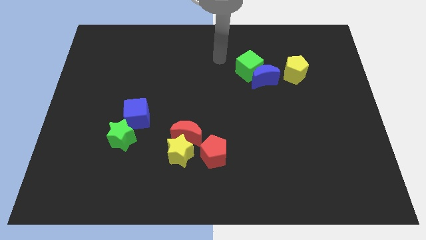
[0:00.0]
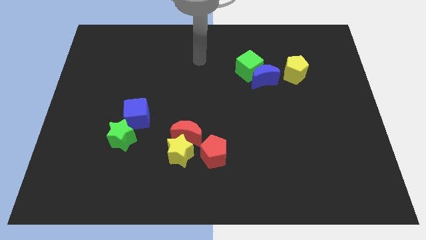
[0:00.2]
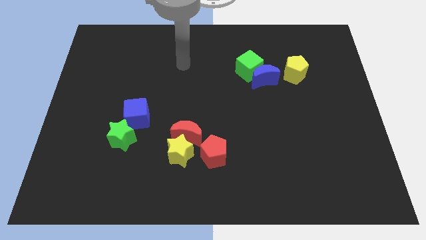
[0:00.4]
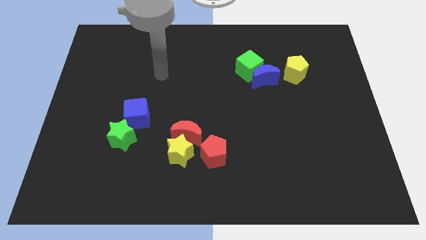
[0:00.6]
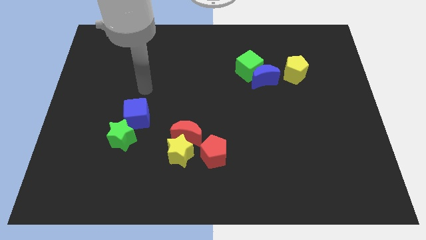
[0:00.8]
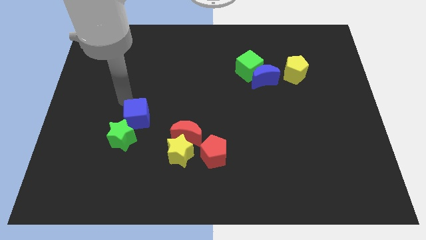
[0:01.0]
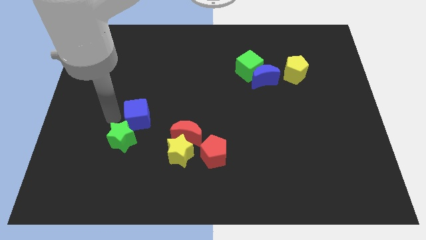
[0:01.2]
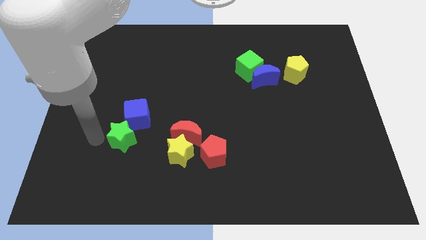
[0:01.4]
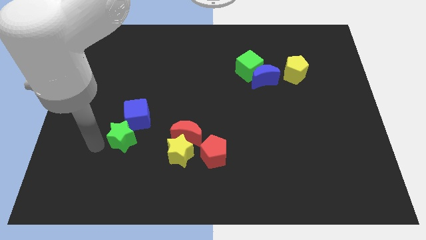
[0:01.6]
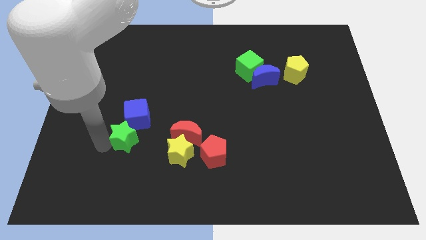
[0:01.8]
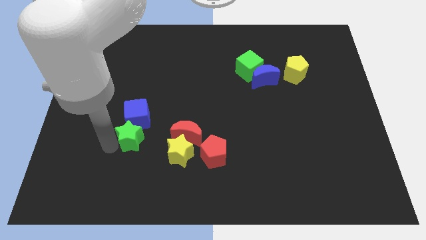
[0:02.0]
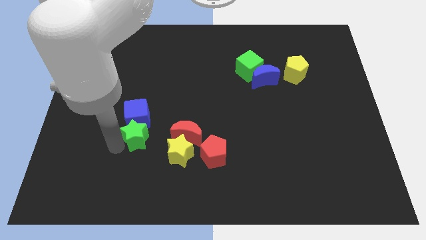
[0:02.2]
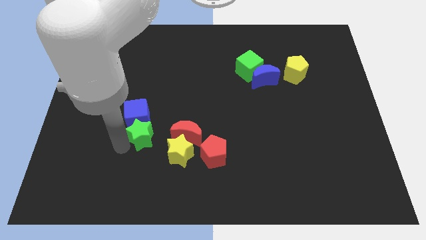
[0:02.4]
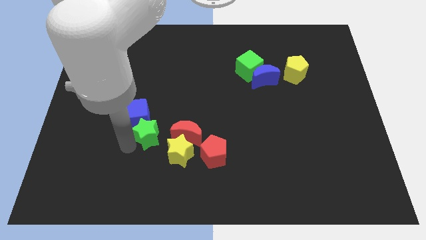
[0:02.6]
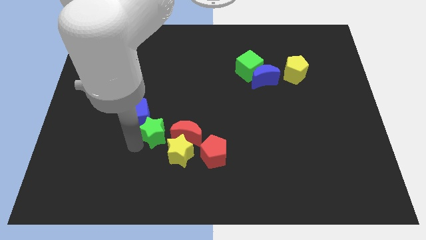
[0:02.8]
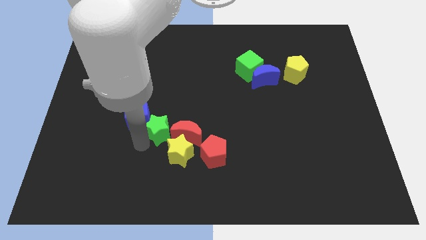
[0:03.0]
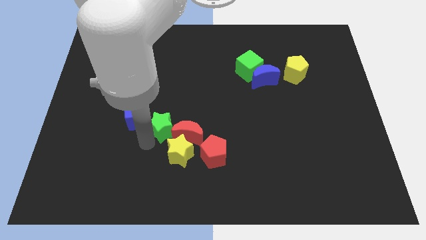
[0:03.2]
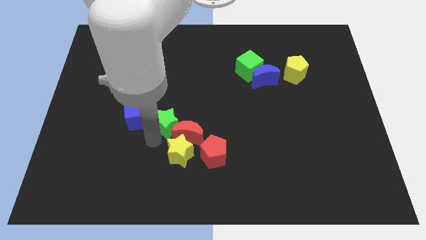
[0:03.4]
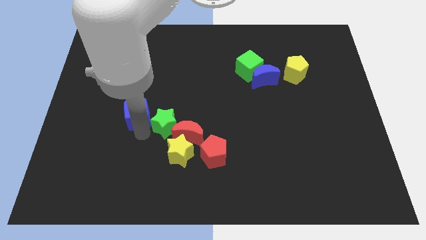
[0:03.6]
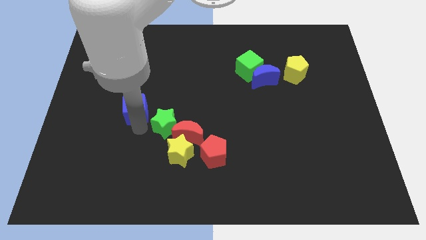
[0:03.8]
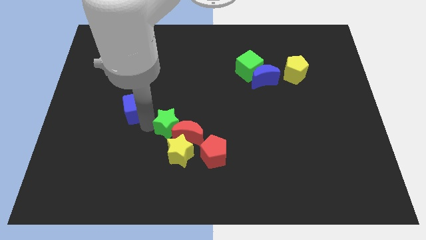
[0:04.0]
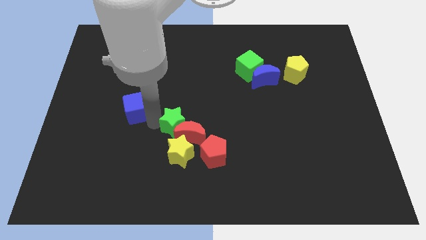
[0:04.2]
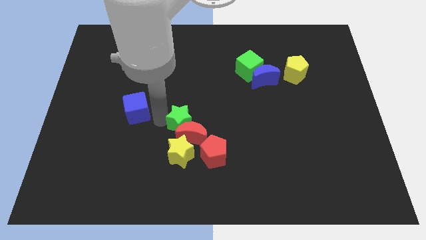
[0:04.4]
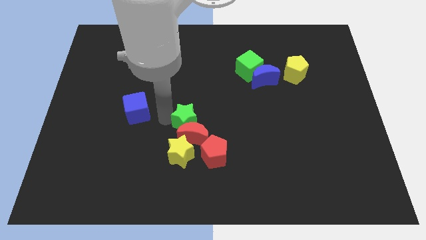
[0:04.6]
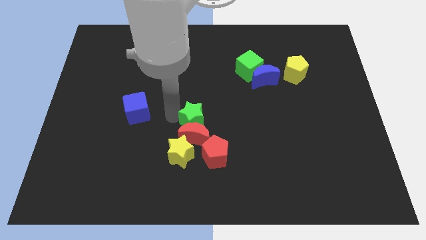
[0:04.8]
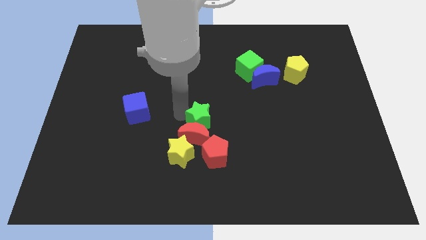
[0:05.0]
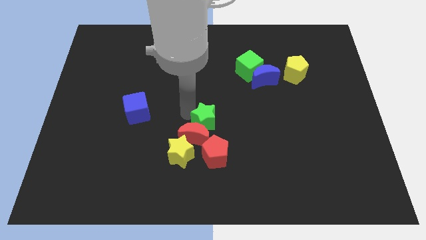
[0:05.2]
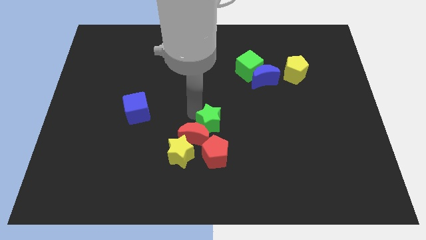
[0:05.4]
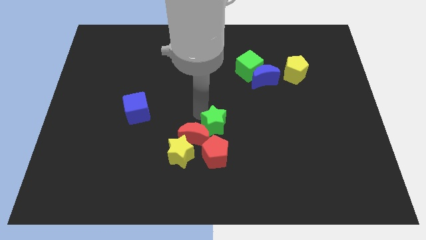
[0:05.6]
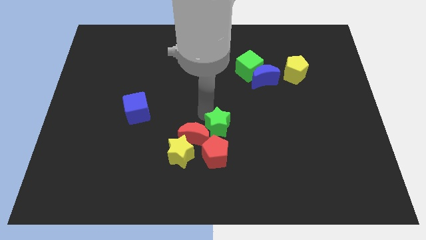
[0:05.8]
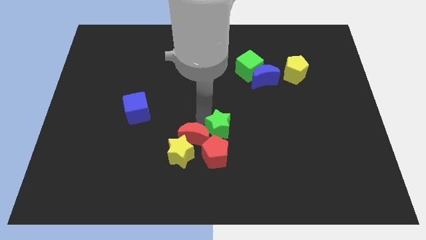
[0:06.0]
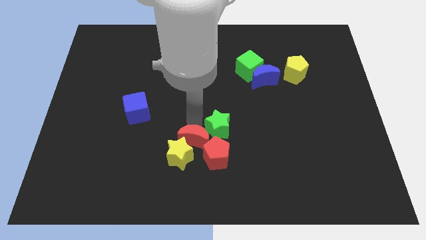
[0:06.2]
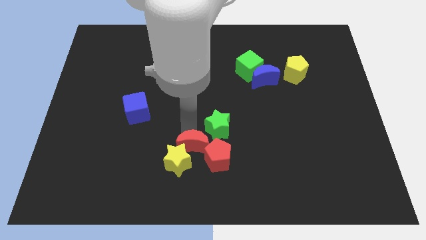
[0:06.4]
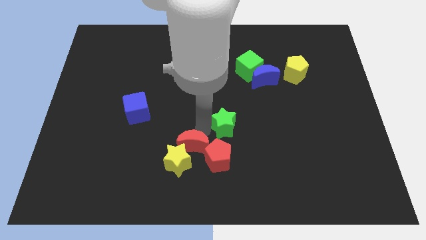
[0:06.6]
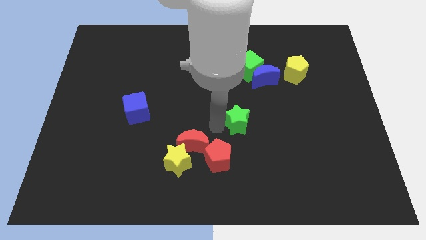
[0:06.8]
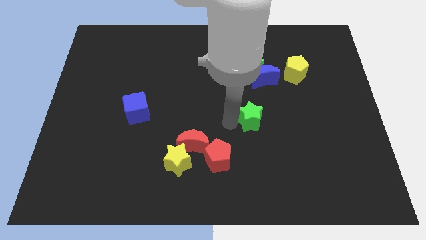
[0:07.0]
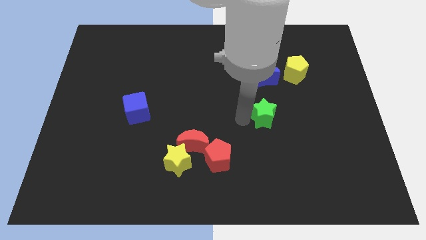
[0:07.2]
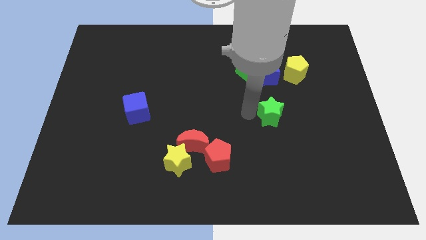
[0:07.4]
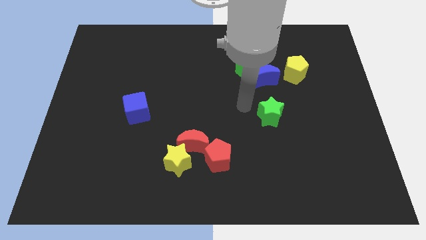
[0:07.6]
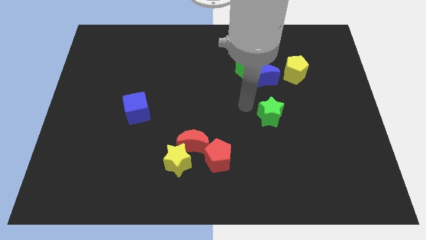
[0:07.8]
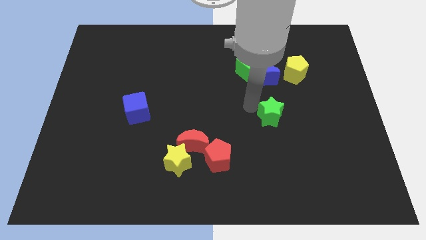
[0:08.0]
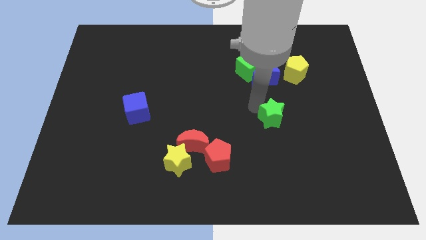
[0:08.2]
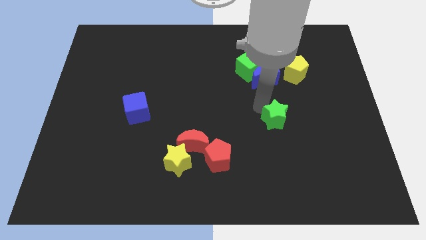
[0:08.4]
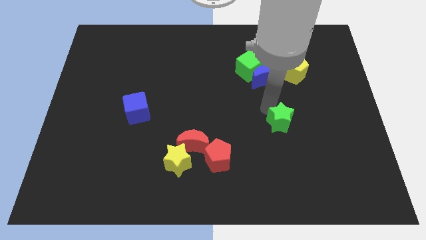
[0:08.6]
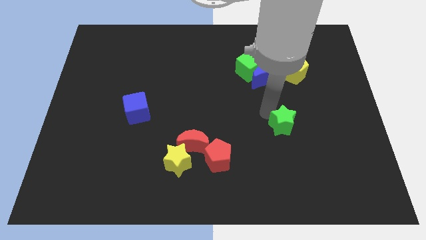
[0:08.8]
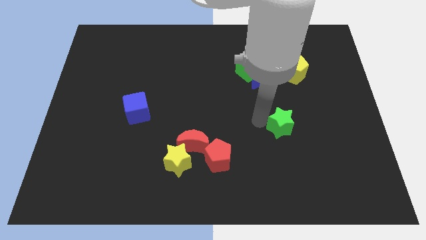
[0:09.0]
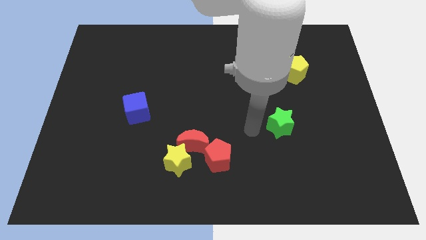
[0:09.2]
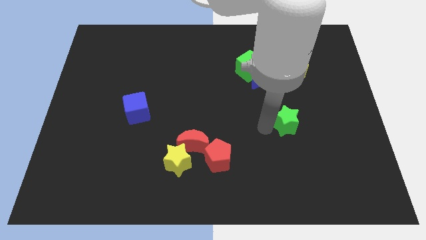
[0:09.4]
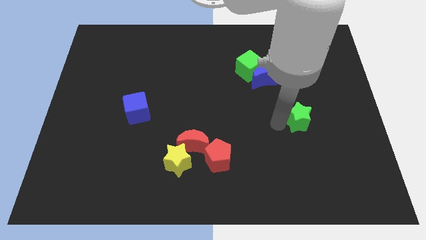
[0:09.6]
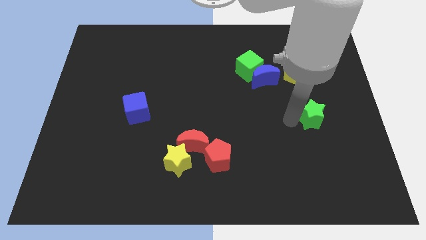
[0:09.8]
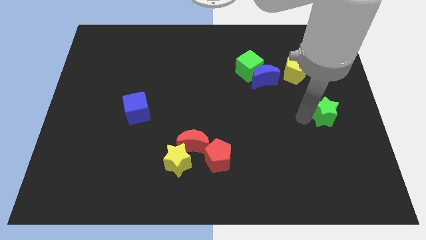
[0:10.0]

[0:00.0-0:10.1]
push the green star to the right side of the board

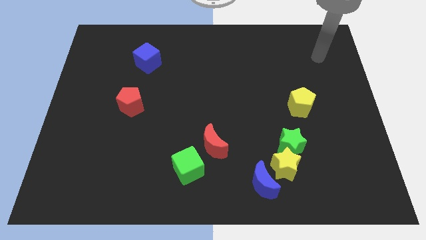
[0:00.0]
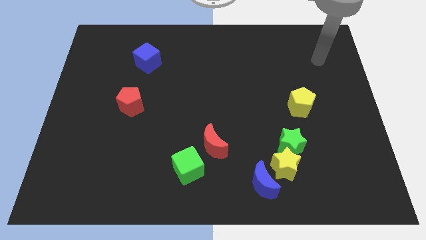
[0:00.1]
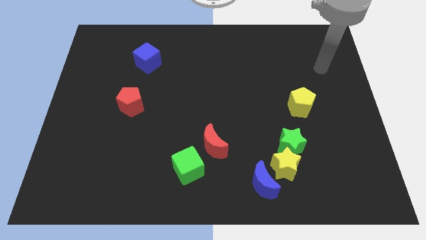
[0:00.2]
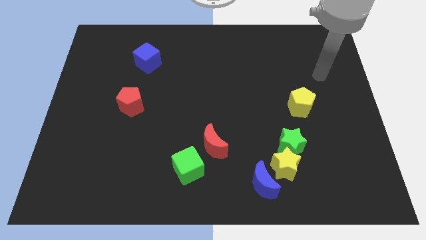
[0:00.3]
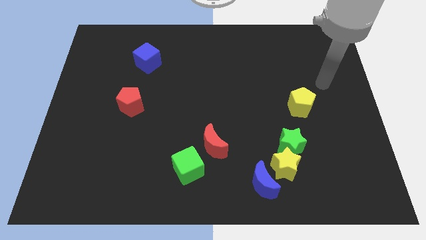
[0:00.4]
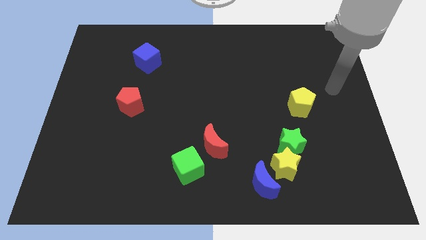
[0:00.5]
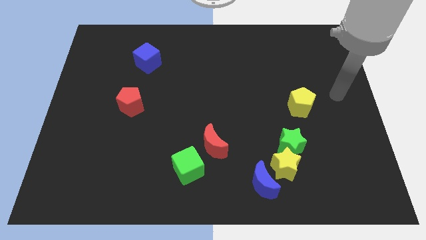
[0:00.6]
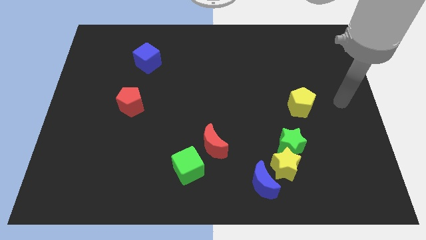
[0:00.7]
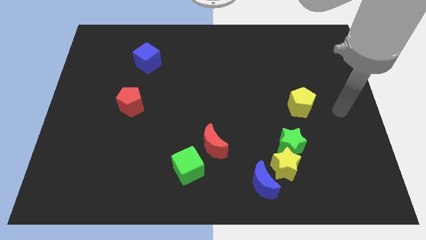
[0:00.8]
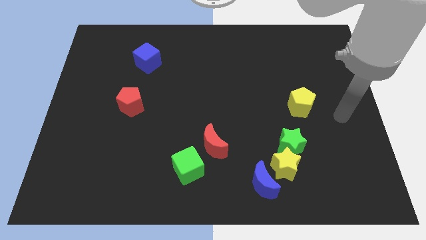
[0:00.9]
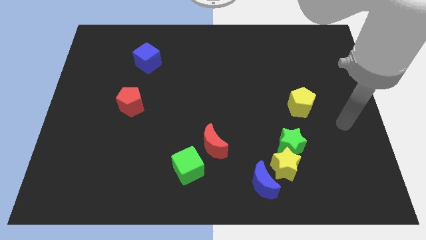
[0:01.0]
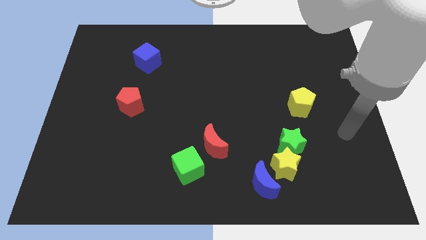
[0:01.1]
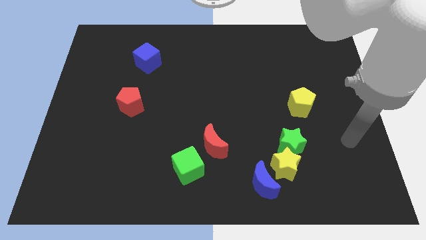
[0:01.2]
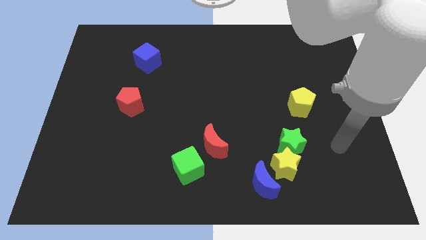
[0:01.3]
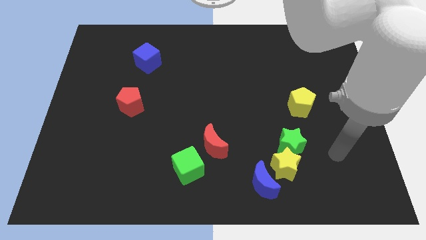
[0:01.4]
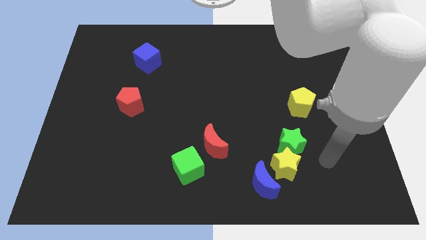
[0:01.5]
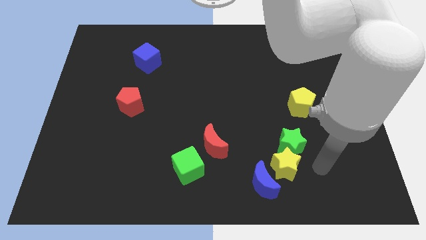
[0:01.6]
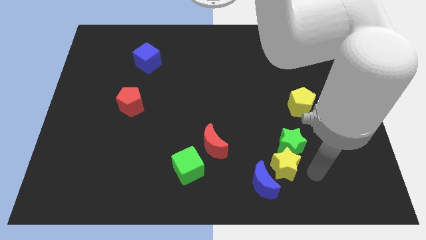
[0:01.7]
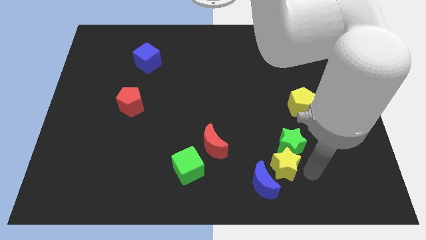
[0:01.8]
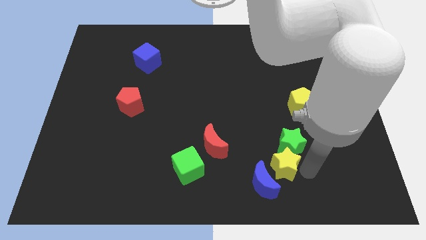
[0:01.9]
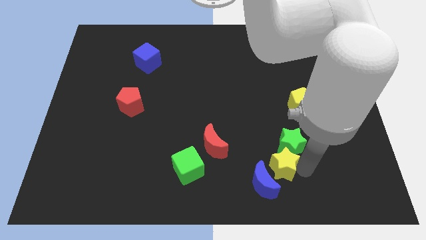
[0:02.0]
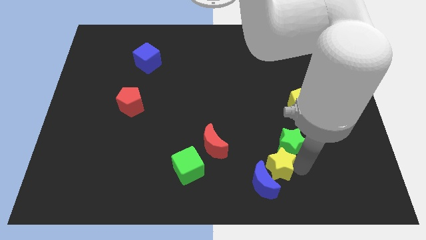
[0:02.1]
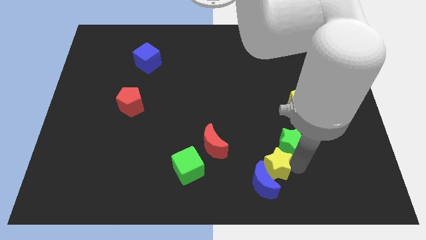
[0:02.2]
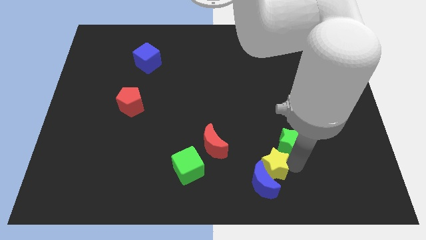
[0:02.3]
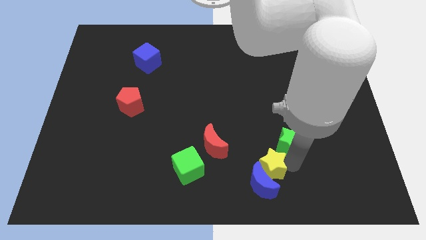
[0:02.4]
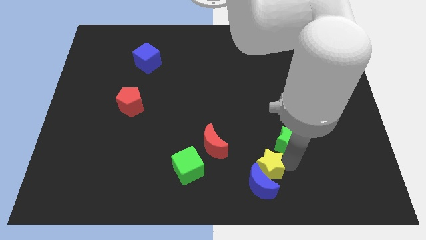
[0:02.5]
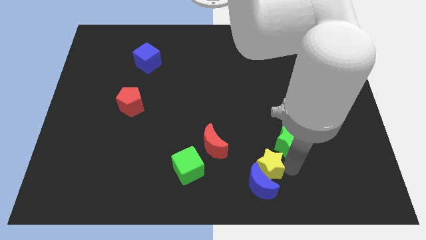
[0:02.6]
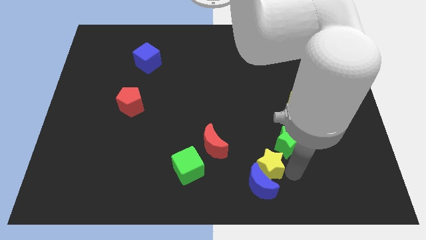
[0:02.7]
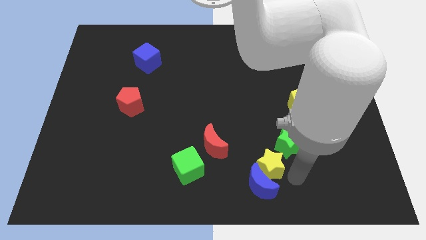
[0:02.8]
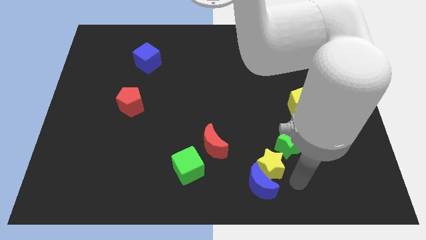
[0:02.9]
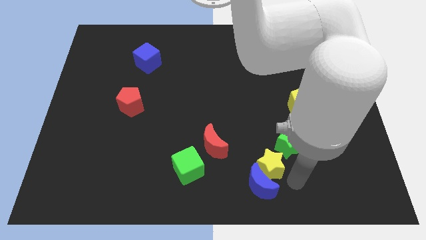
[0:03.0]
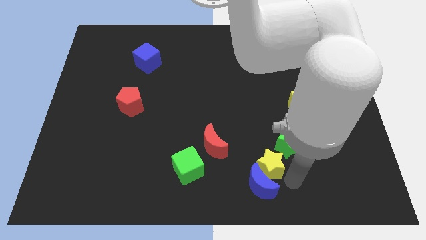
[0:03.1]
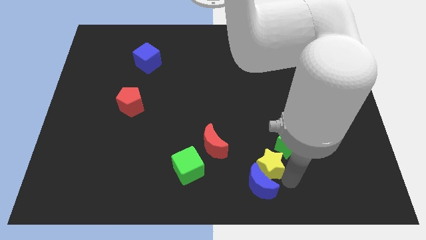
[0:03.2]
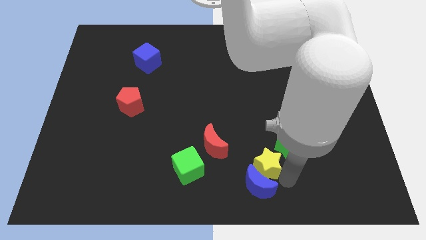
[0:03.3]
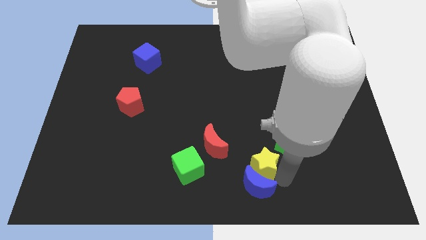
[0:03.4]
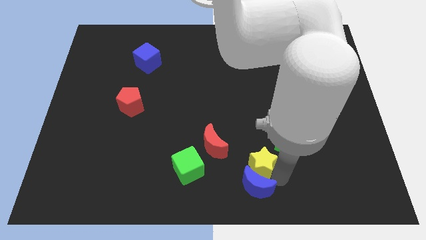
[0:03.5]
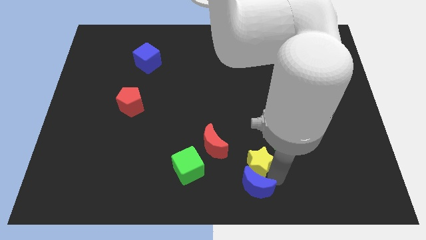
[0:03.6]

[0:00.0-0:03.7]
put the yellow star to the bottom
